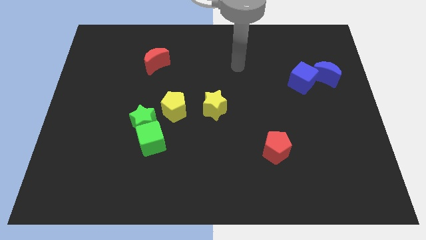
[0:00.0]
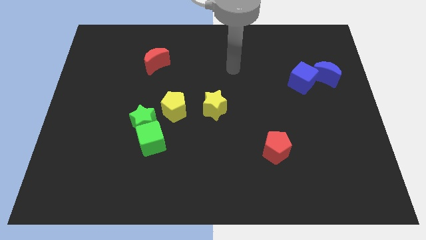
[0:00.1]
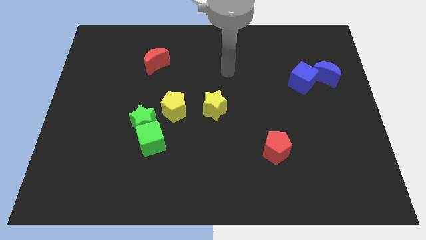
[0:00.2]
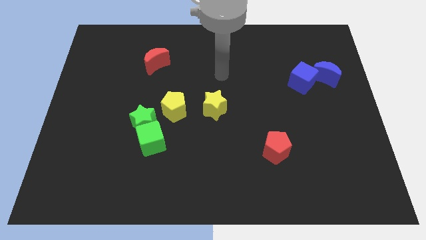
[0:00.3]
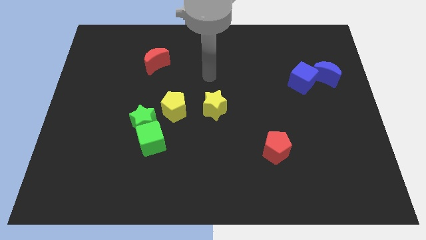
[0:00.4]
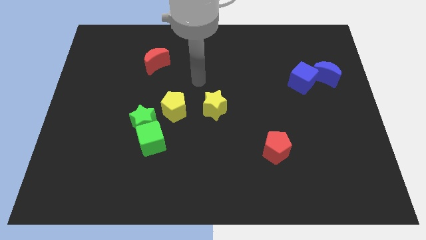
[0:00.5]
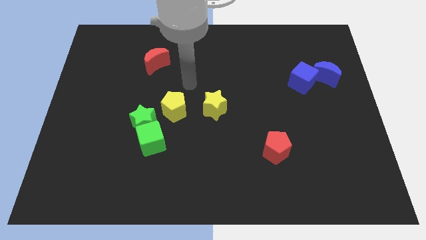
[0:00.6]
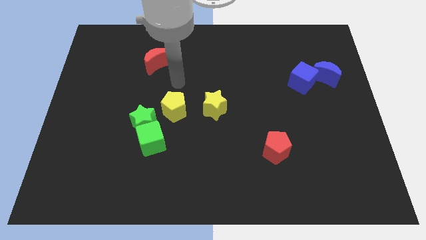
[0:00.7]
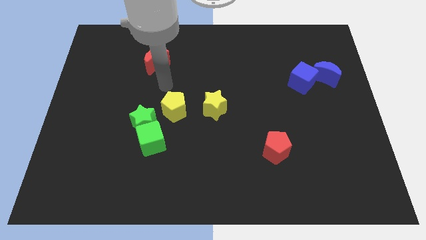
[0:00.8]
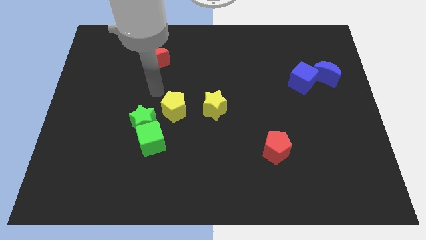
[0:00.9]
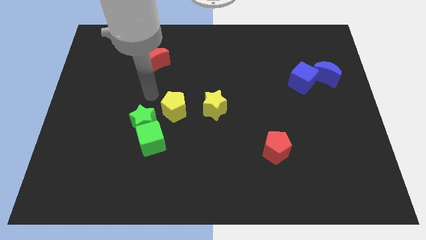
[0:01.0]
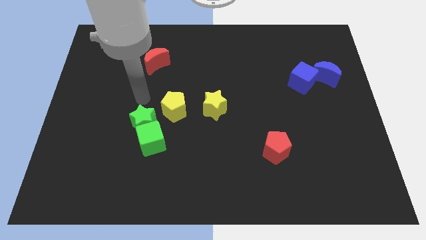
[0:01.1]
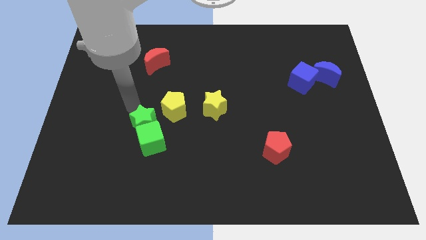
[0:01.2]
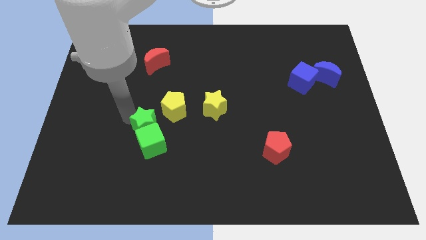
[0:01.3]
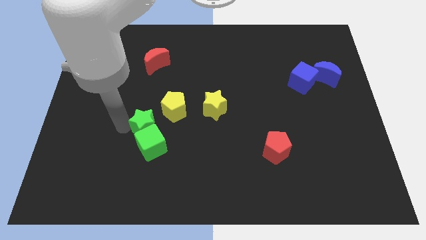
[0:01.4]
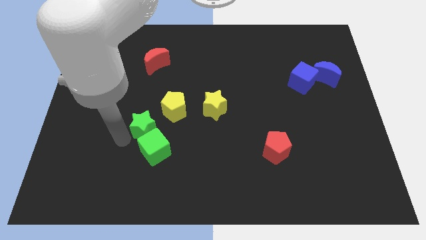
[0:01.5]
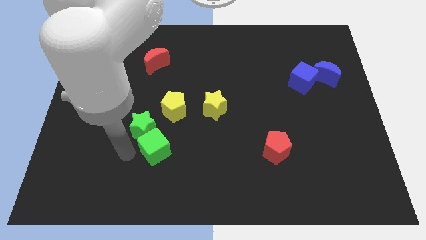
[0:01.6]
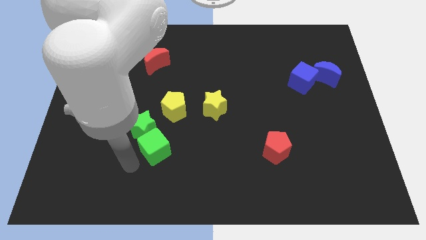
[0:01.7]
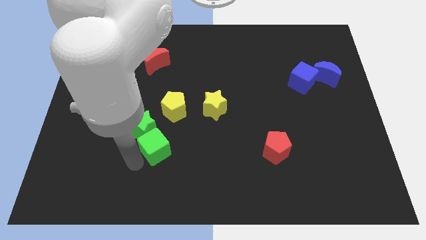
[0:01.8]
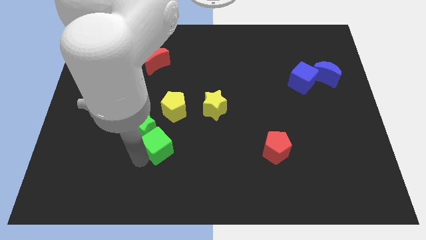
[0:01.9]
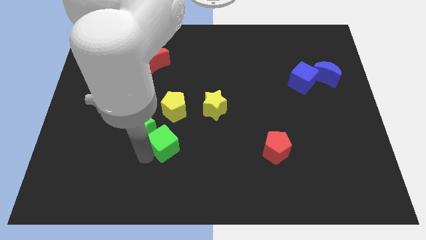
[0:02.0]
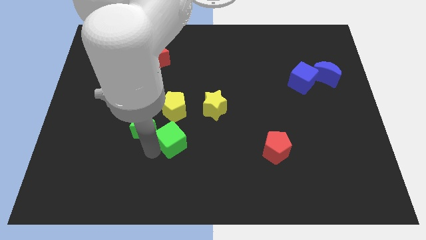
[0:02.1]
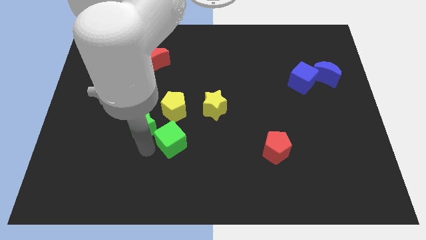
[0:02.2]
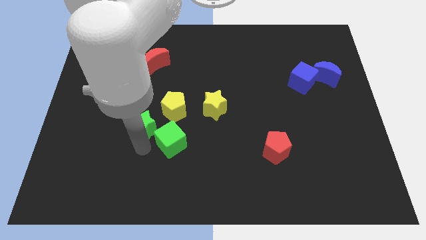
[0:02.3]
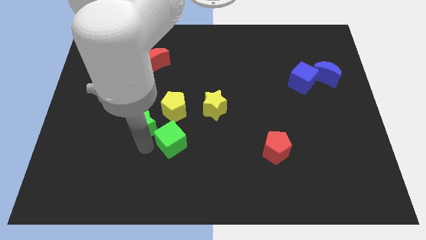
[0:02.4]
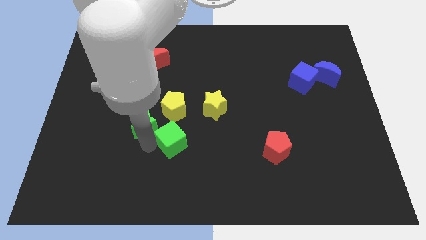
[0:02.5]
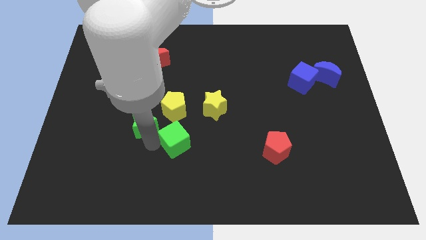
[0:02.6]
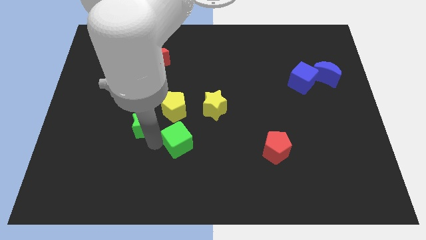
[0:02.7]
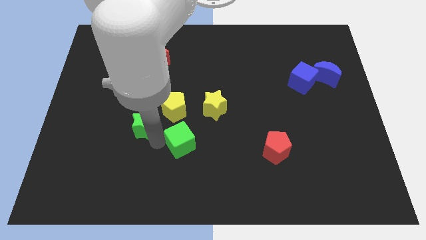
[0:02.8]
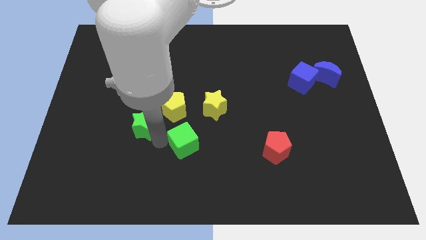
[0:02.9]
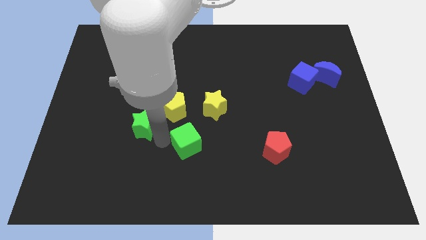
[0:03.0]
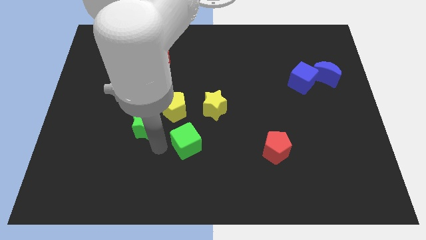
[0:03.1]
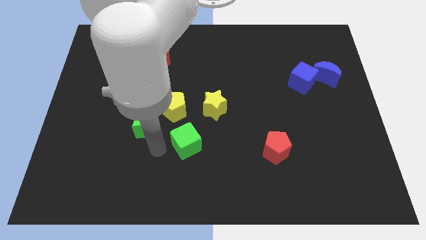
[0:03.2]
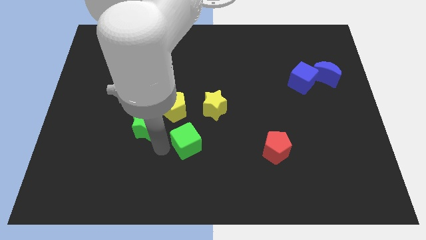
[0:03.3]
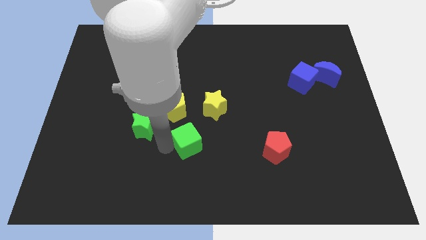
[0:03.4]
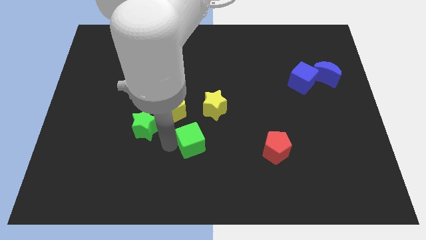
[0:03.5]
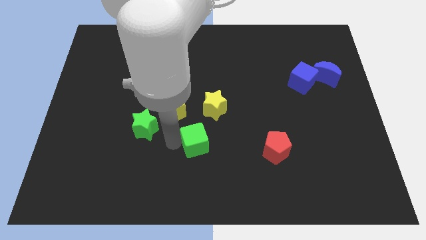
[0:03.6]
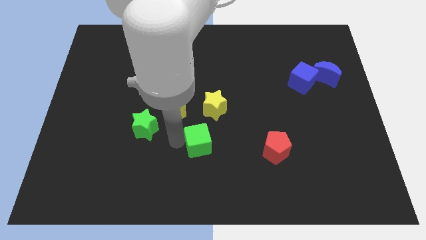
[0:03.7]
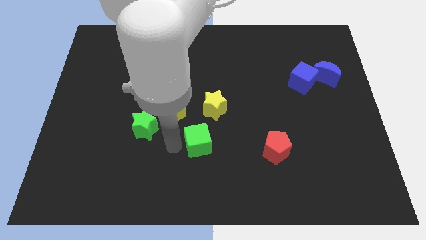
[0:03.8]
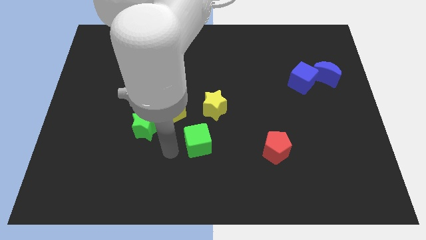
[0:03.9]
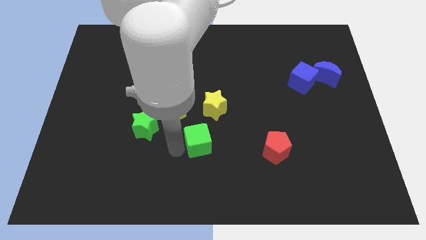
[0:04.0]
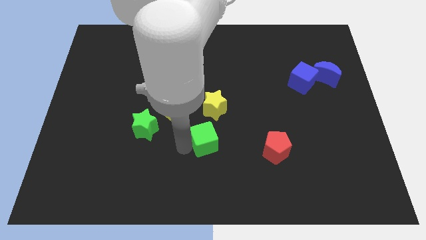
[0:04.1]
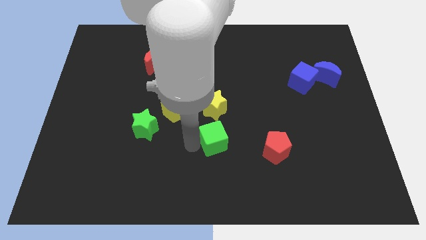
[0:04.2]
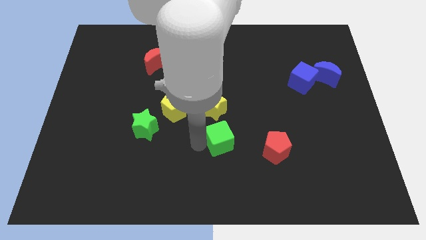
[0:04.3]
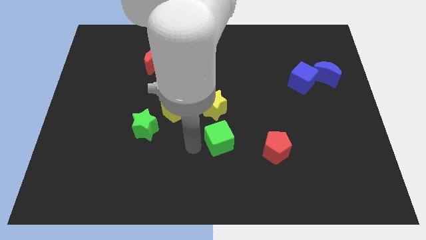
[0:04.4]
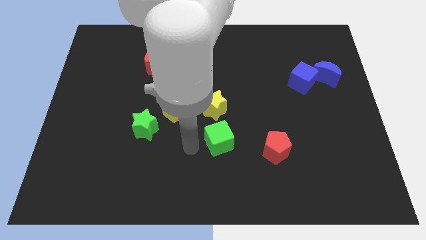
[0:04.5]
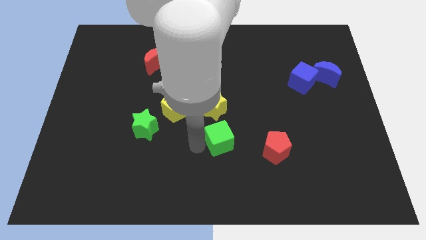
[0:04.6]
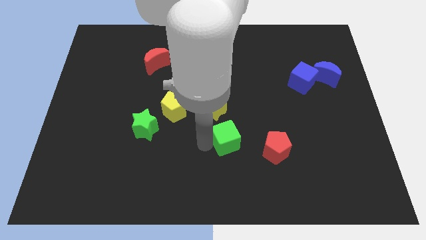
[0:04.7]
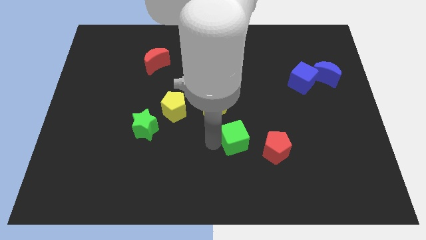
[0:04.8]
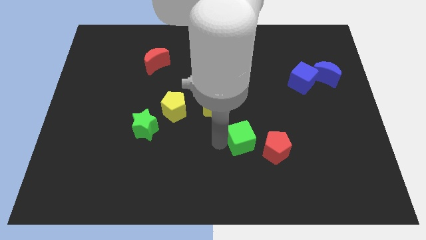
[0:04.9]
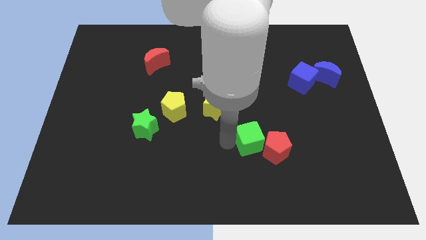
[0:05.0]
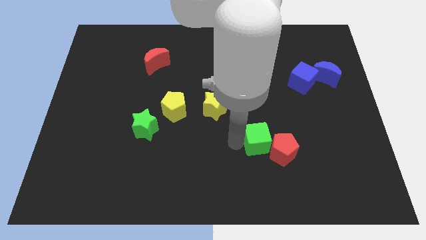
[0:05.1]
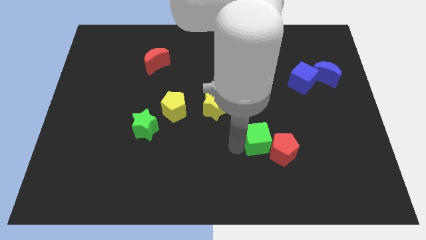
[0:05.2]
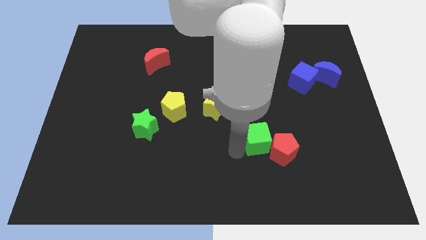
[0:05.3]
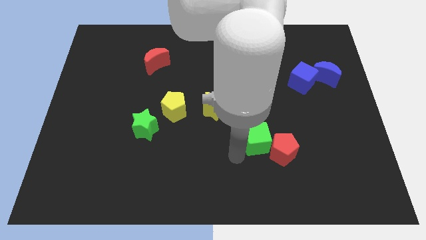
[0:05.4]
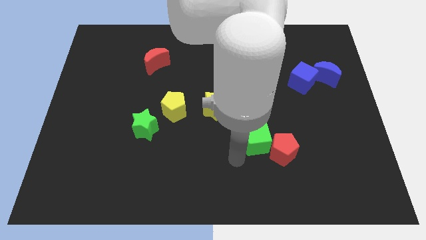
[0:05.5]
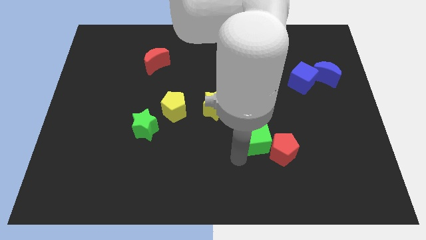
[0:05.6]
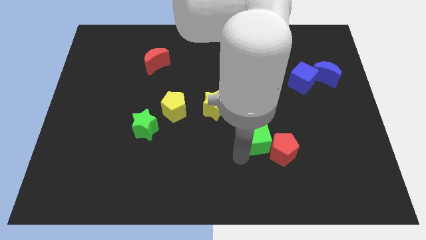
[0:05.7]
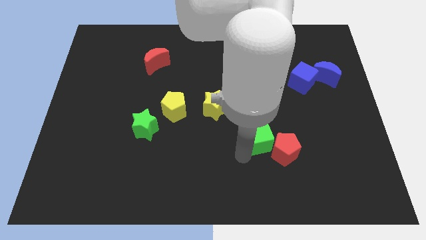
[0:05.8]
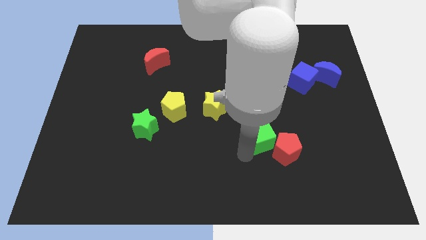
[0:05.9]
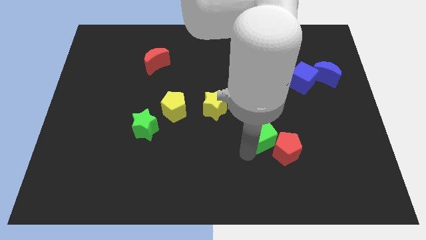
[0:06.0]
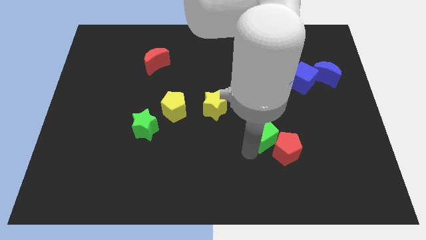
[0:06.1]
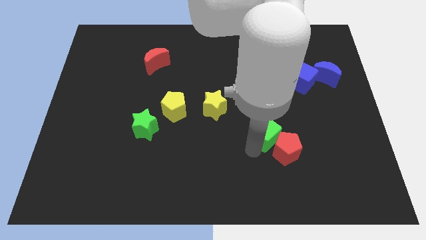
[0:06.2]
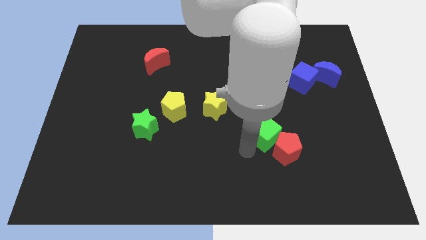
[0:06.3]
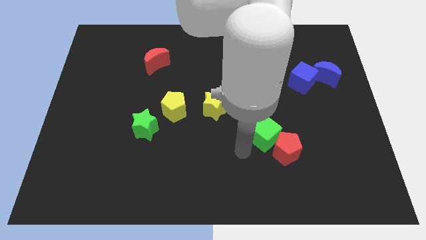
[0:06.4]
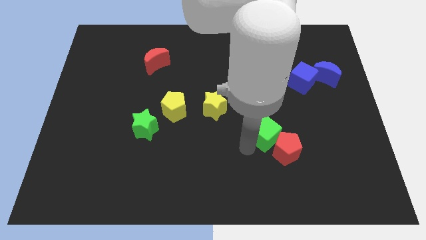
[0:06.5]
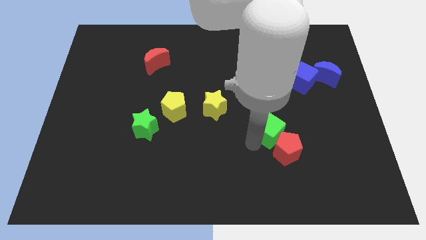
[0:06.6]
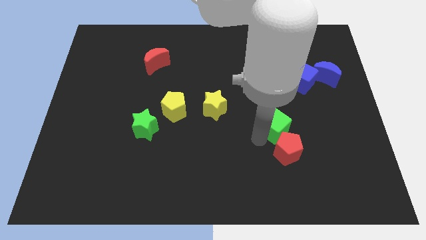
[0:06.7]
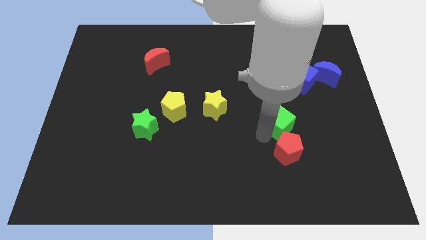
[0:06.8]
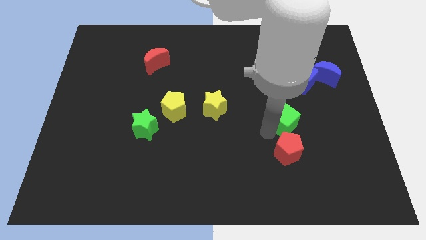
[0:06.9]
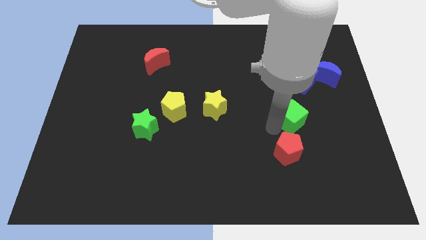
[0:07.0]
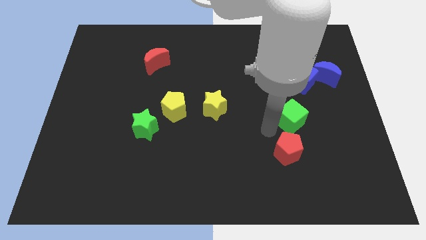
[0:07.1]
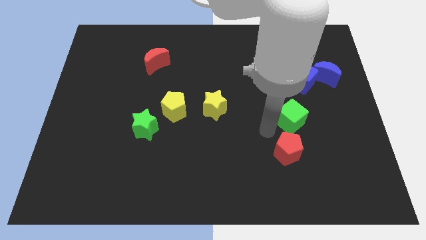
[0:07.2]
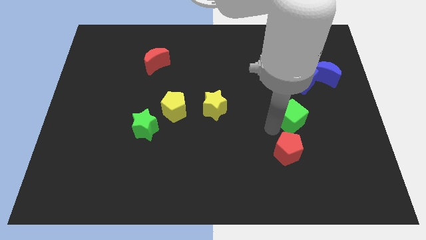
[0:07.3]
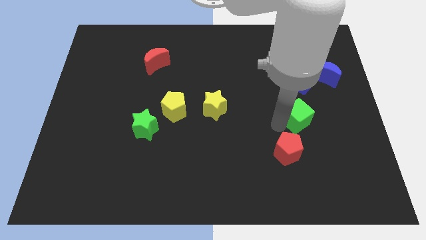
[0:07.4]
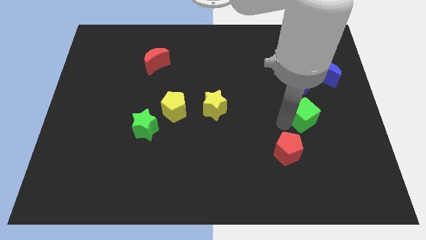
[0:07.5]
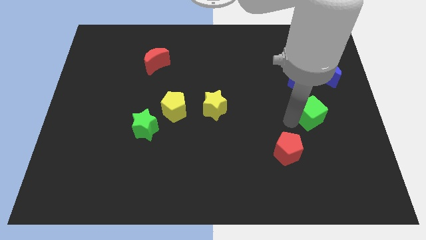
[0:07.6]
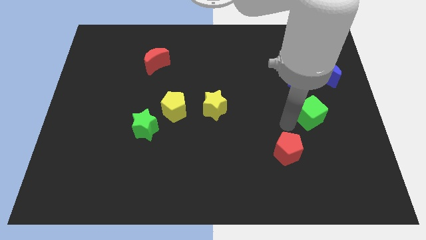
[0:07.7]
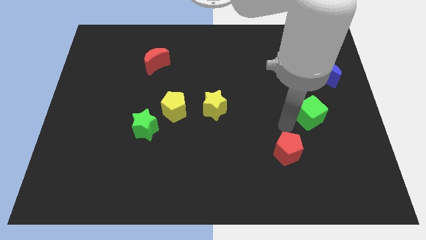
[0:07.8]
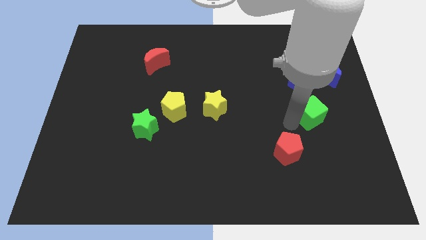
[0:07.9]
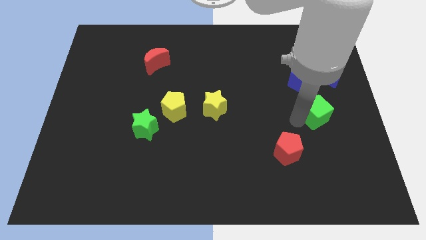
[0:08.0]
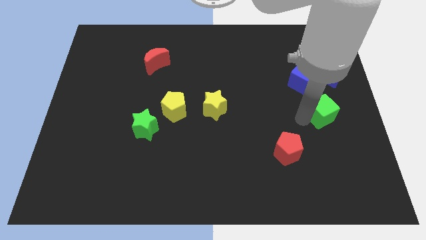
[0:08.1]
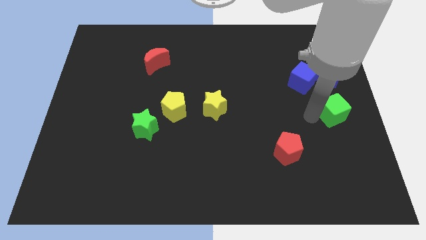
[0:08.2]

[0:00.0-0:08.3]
put the green cube to the center right
